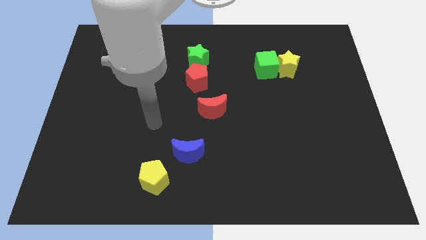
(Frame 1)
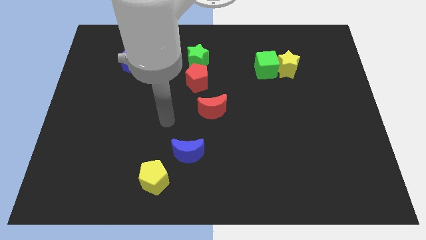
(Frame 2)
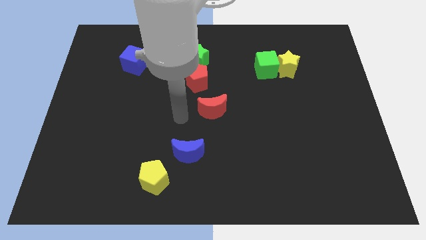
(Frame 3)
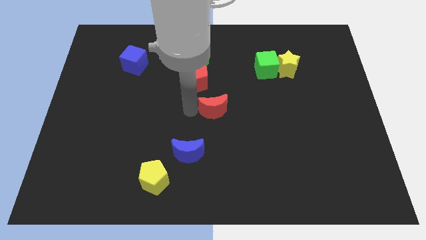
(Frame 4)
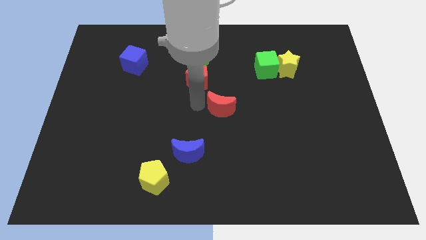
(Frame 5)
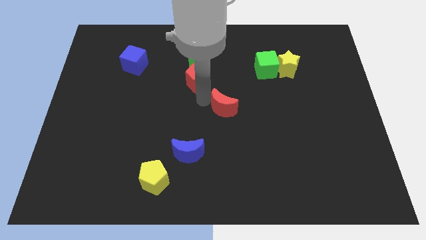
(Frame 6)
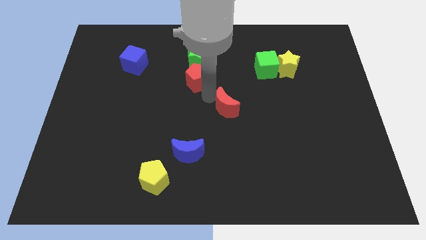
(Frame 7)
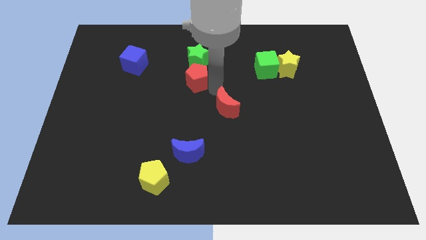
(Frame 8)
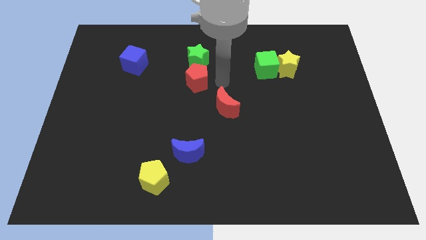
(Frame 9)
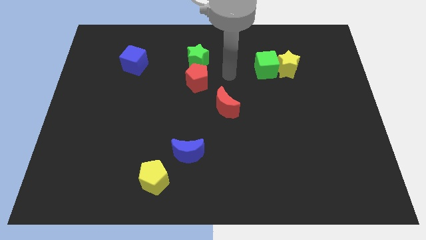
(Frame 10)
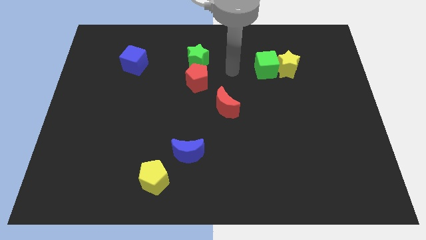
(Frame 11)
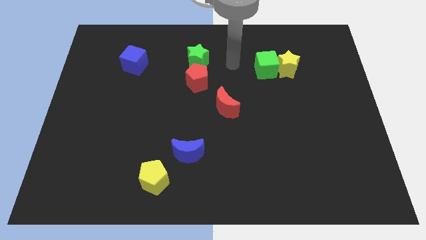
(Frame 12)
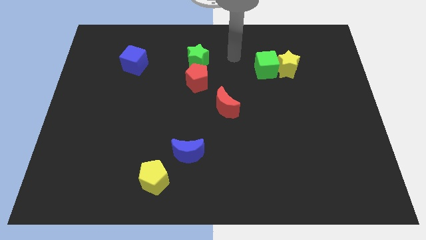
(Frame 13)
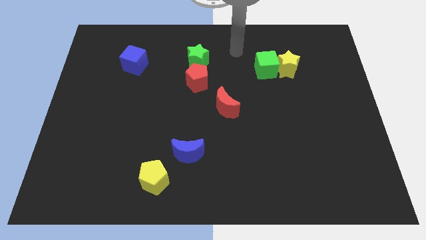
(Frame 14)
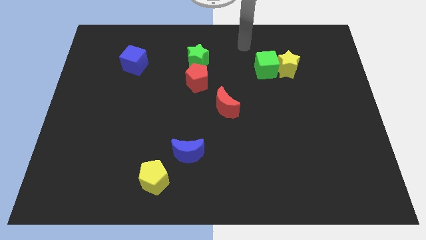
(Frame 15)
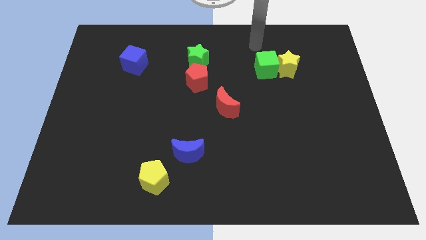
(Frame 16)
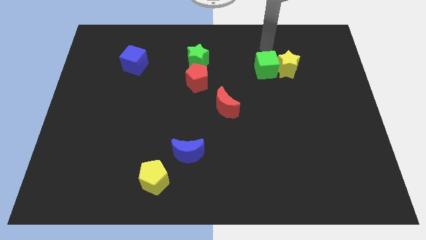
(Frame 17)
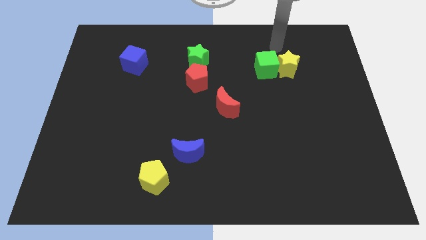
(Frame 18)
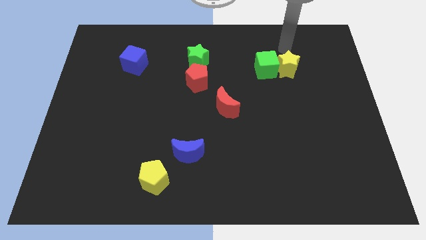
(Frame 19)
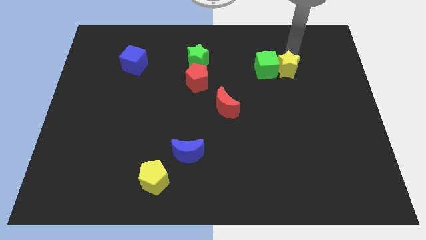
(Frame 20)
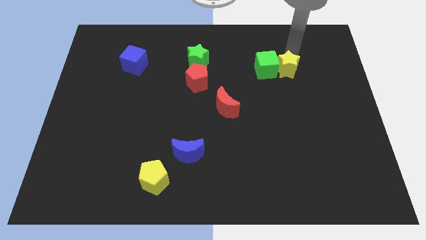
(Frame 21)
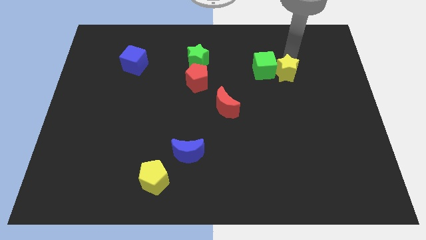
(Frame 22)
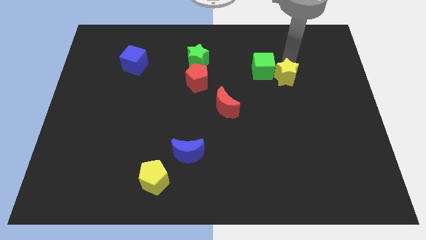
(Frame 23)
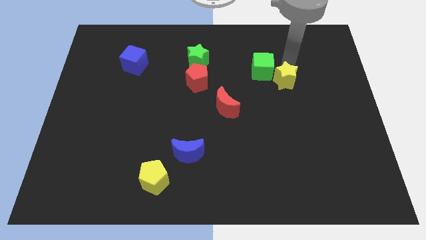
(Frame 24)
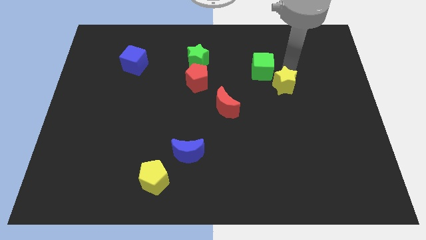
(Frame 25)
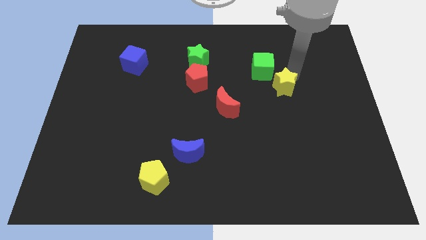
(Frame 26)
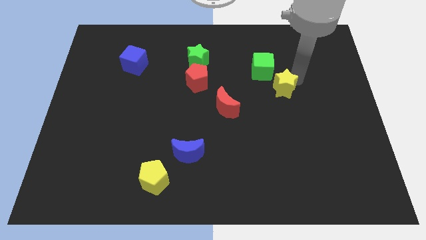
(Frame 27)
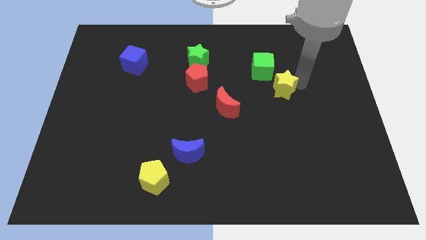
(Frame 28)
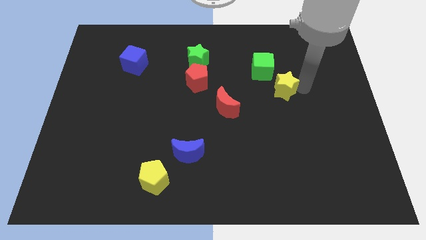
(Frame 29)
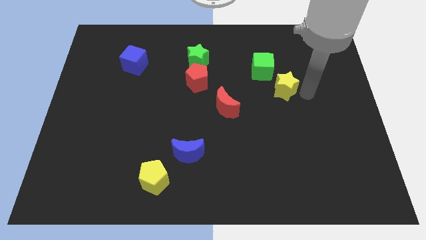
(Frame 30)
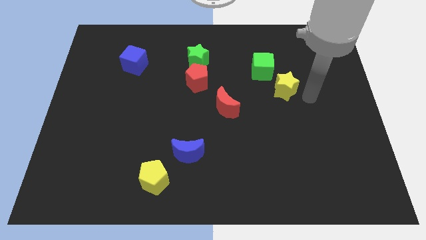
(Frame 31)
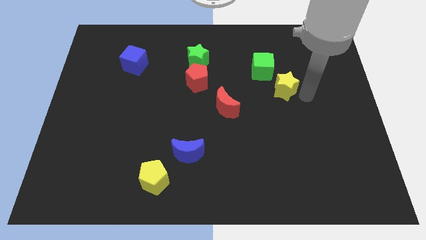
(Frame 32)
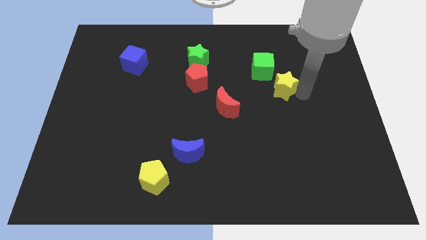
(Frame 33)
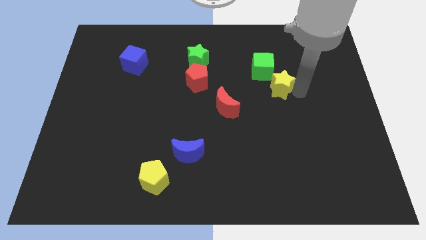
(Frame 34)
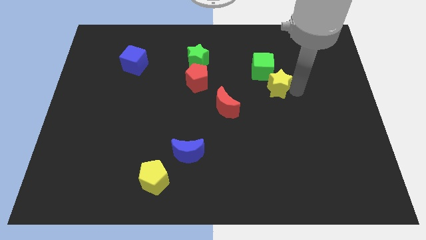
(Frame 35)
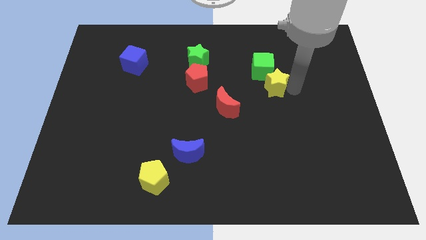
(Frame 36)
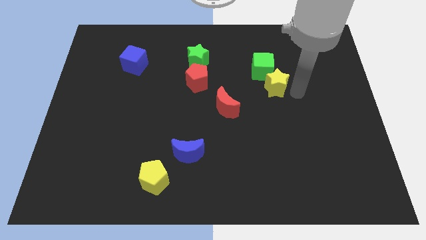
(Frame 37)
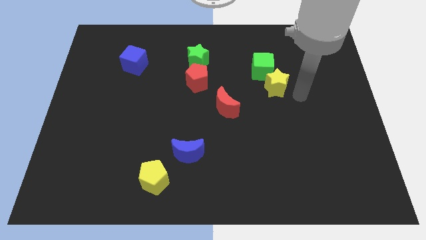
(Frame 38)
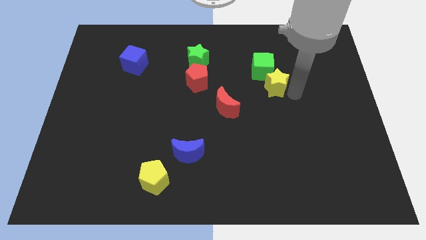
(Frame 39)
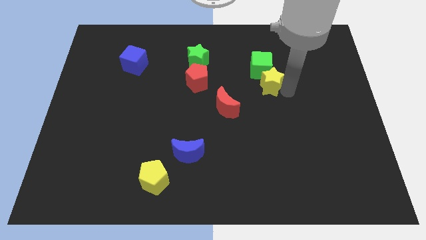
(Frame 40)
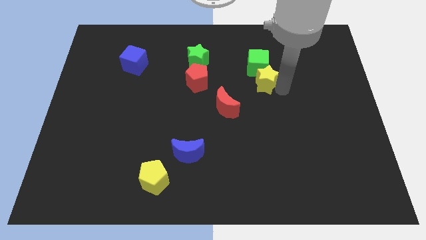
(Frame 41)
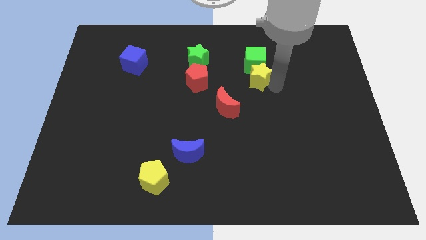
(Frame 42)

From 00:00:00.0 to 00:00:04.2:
move the yellow star a bit to the left

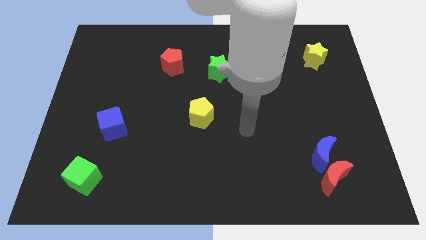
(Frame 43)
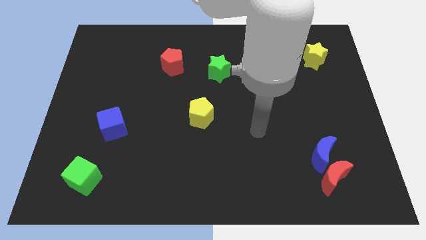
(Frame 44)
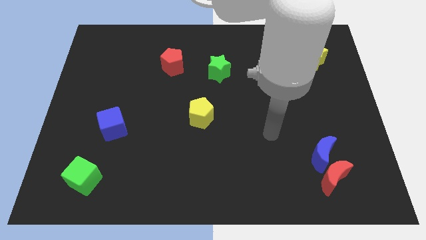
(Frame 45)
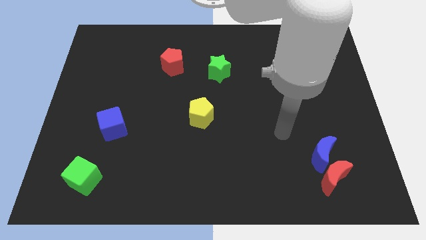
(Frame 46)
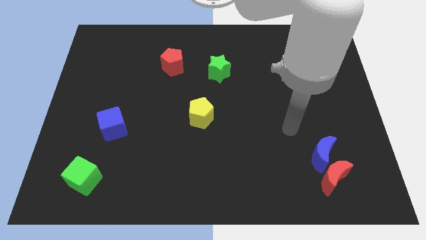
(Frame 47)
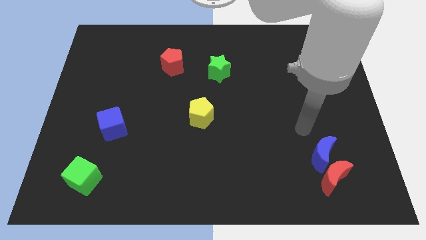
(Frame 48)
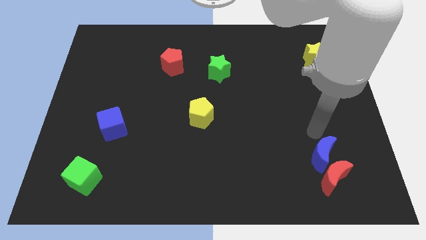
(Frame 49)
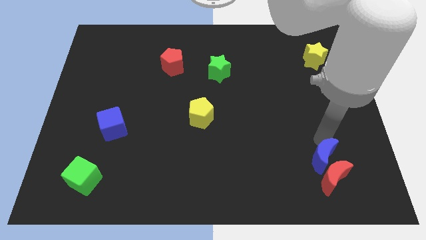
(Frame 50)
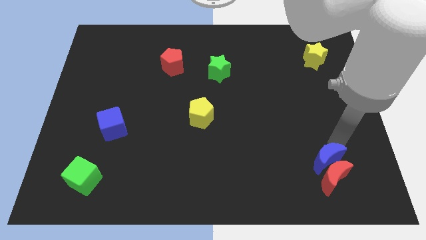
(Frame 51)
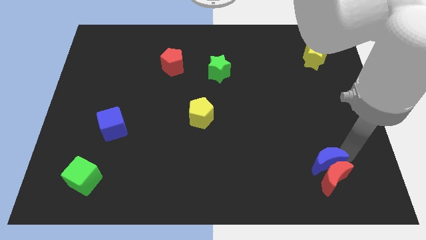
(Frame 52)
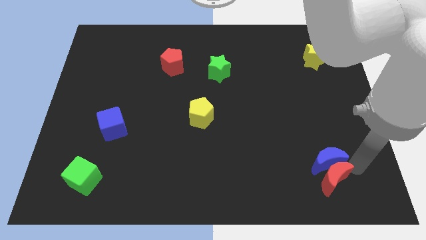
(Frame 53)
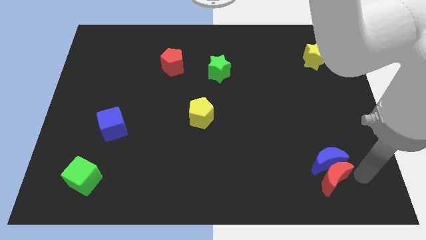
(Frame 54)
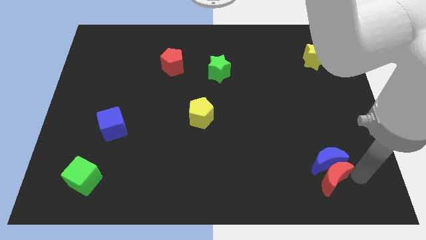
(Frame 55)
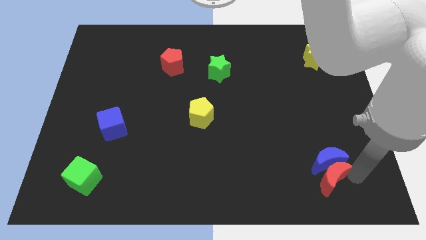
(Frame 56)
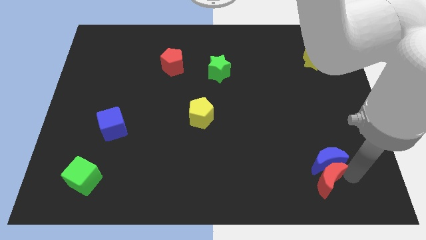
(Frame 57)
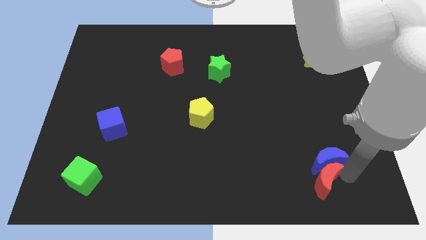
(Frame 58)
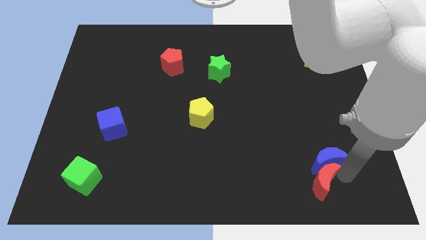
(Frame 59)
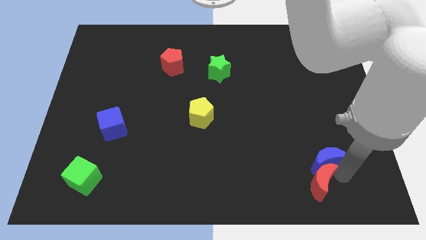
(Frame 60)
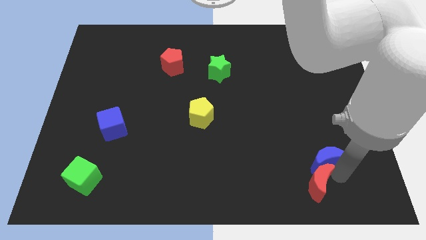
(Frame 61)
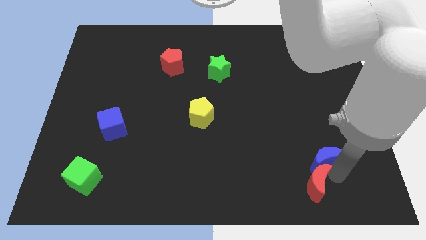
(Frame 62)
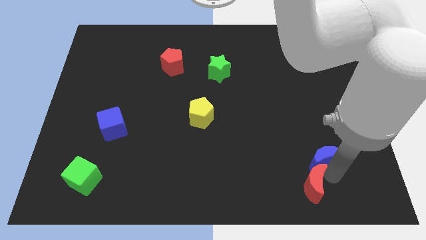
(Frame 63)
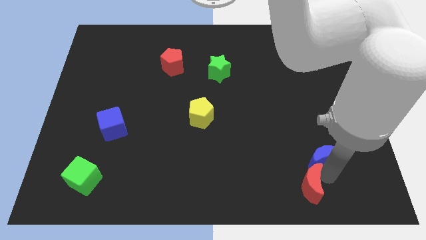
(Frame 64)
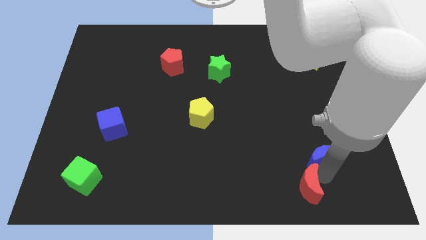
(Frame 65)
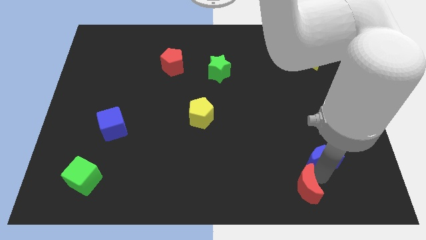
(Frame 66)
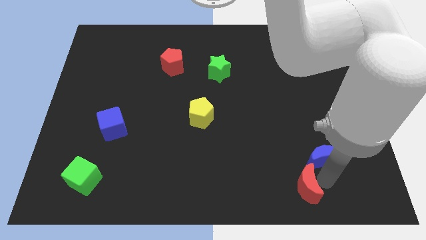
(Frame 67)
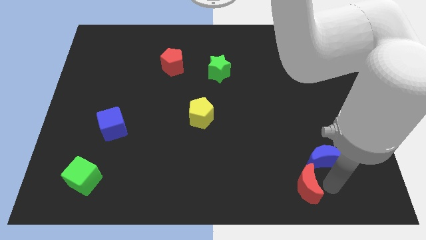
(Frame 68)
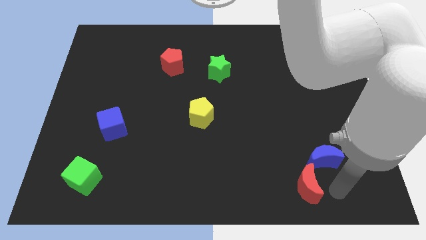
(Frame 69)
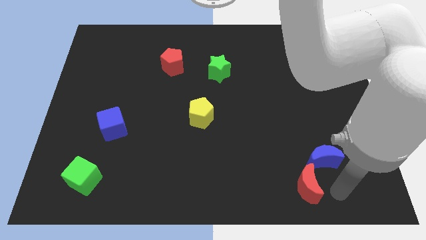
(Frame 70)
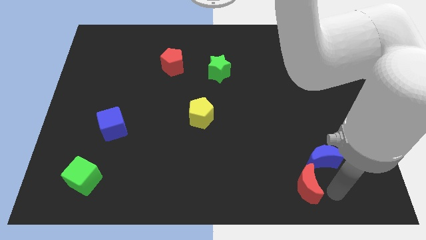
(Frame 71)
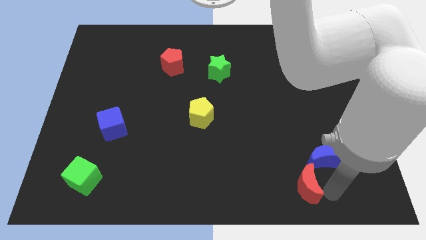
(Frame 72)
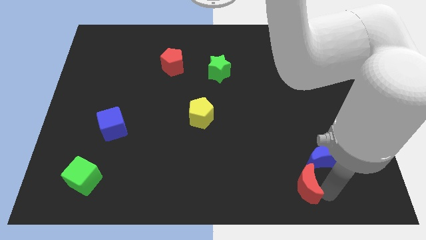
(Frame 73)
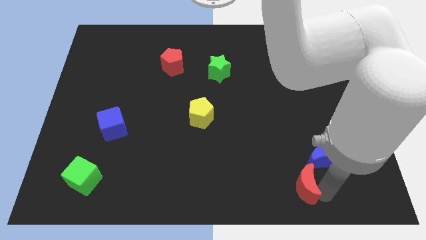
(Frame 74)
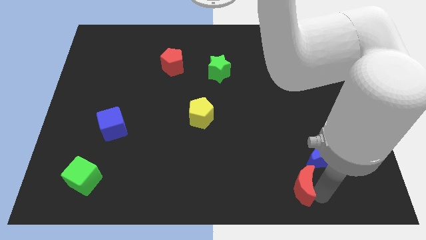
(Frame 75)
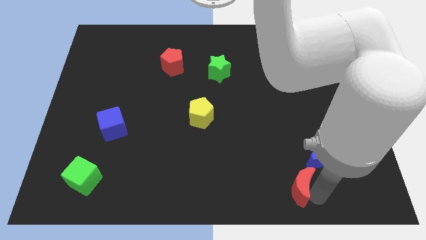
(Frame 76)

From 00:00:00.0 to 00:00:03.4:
move the red moon slightly to the left

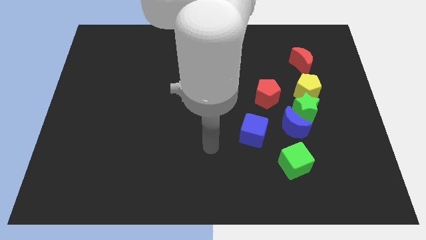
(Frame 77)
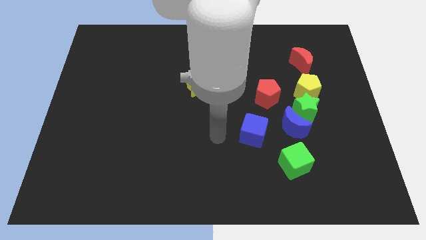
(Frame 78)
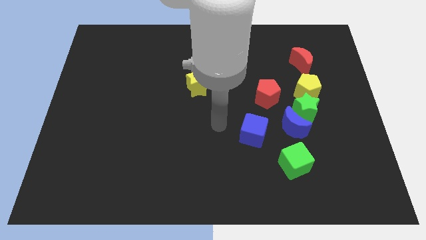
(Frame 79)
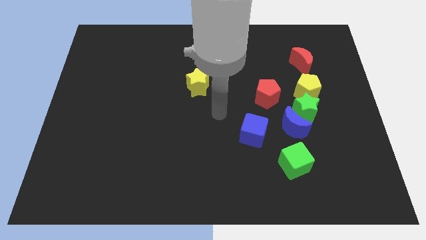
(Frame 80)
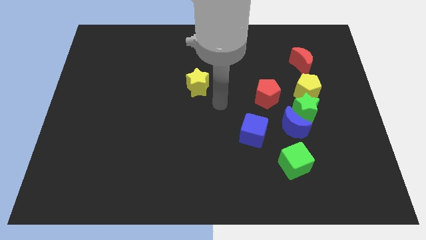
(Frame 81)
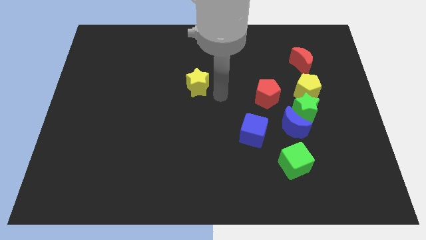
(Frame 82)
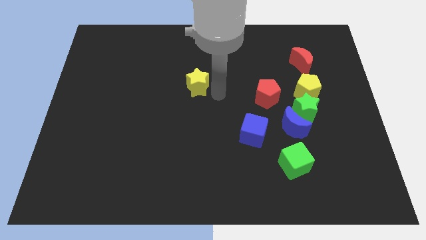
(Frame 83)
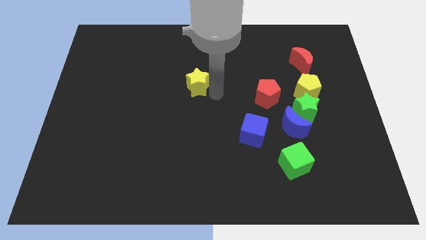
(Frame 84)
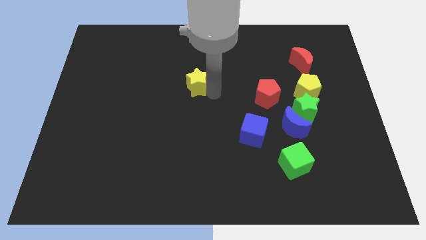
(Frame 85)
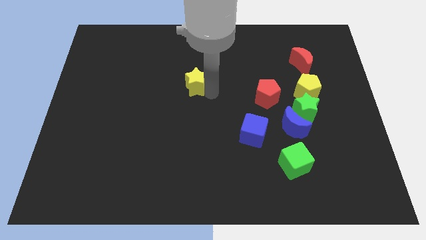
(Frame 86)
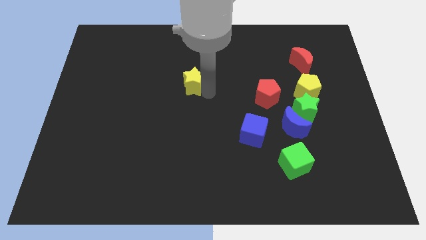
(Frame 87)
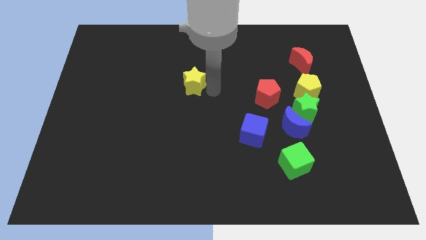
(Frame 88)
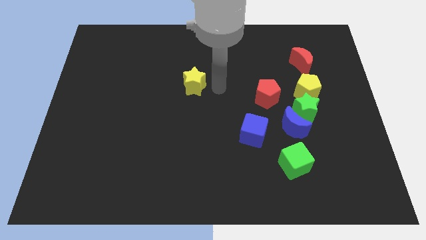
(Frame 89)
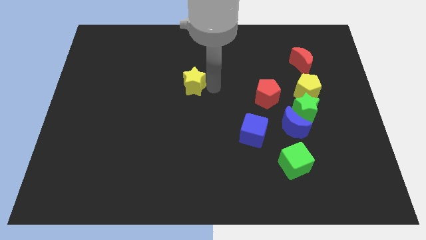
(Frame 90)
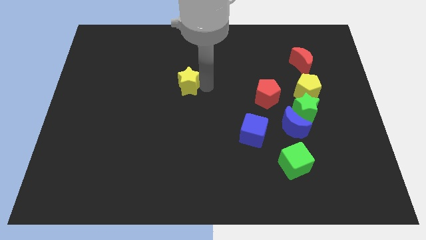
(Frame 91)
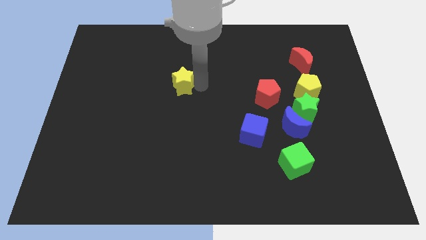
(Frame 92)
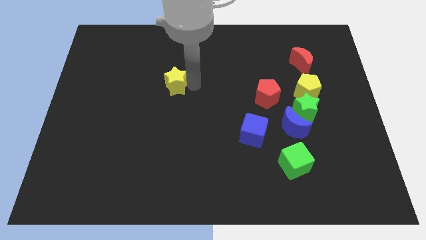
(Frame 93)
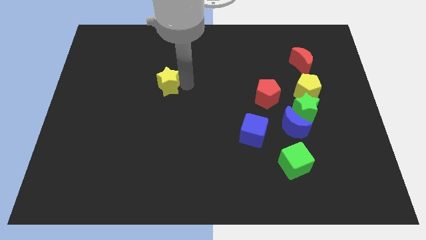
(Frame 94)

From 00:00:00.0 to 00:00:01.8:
move the yellow star a little bit to the left
